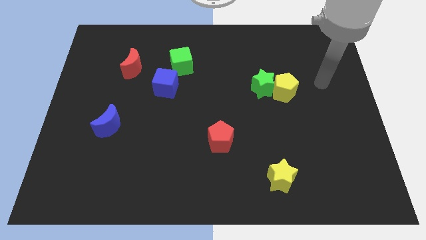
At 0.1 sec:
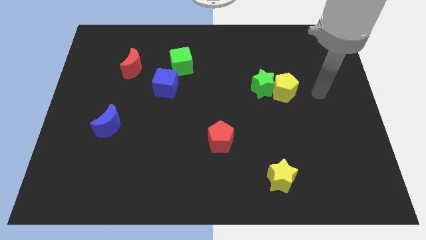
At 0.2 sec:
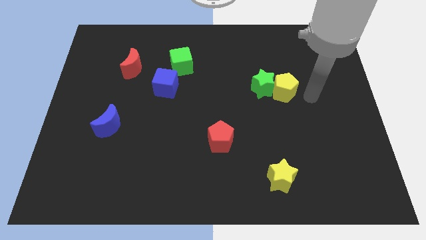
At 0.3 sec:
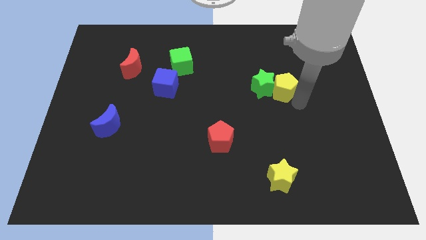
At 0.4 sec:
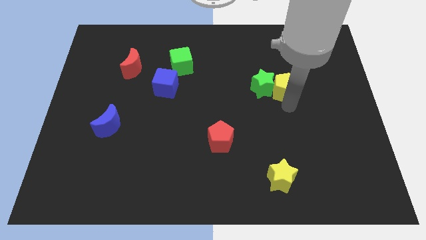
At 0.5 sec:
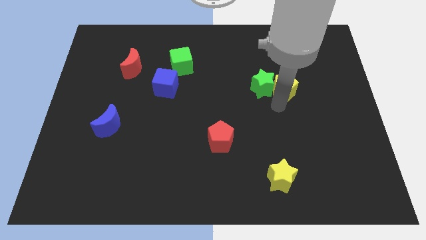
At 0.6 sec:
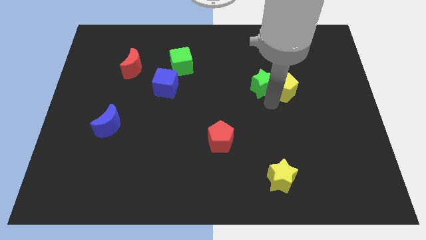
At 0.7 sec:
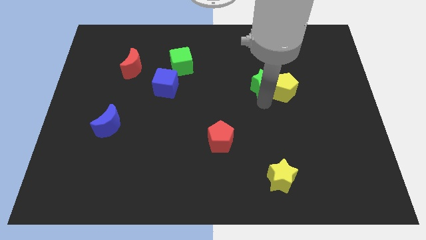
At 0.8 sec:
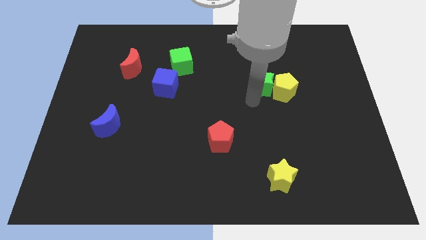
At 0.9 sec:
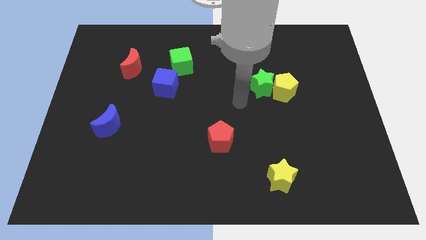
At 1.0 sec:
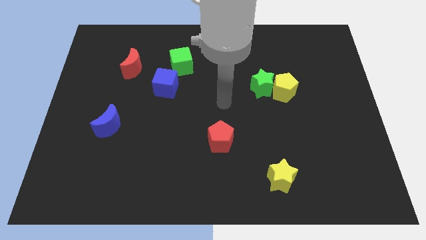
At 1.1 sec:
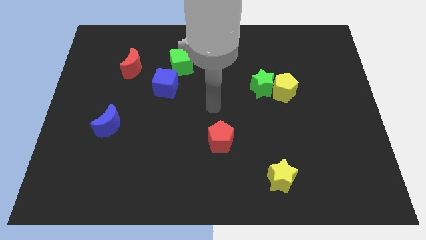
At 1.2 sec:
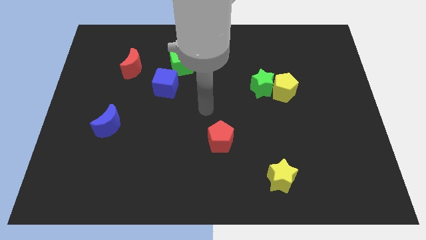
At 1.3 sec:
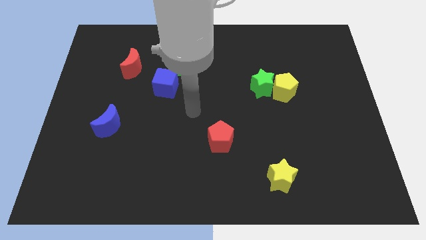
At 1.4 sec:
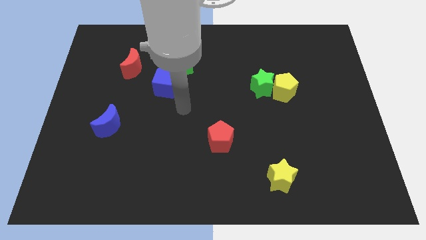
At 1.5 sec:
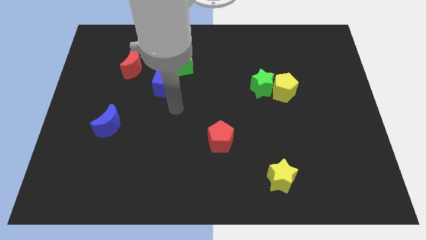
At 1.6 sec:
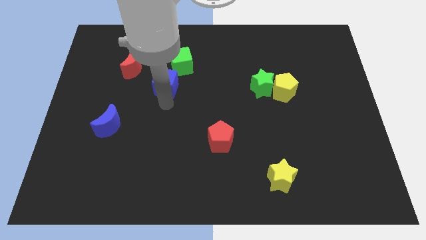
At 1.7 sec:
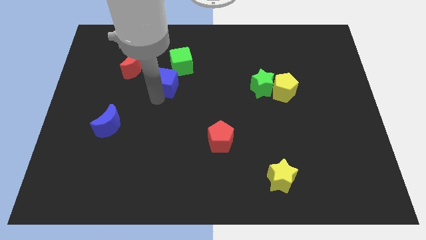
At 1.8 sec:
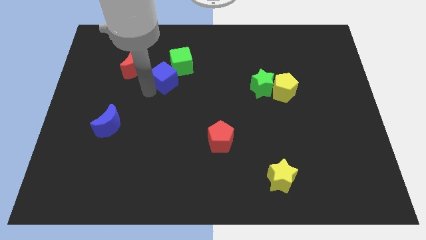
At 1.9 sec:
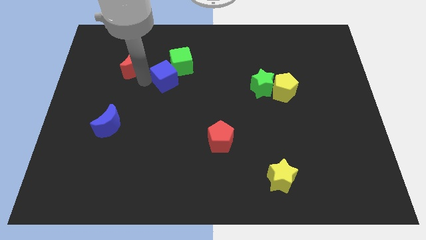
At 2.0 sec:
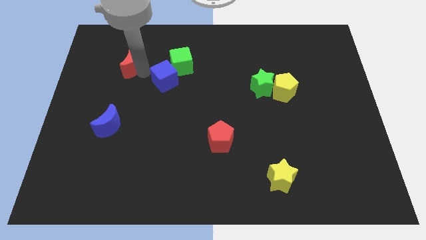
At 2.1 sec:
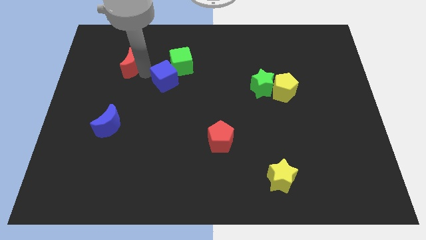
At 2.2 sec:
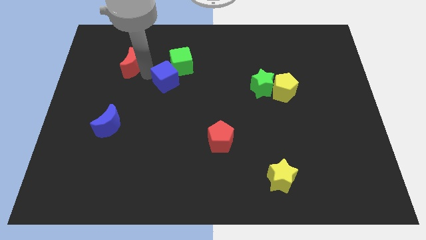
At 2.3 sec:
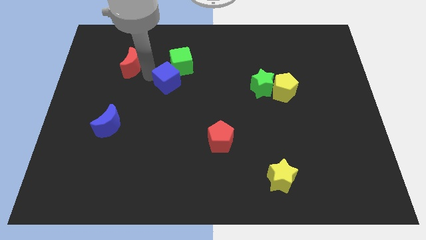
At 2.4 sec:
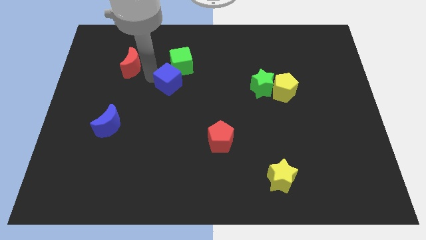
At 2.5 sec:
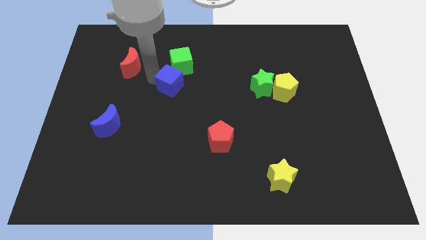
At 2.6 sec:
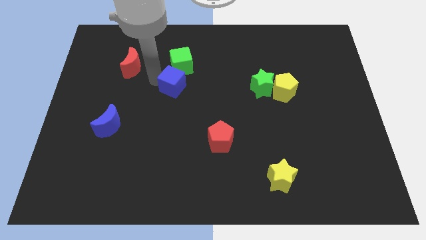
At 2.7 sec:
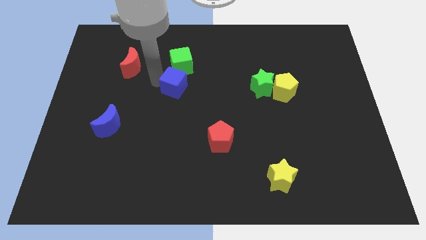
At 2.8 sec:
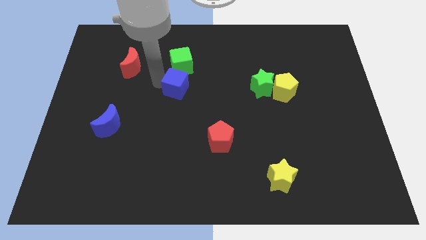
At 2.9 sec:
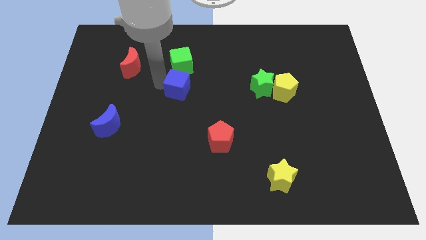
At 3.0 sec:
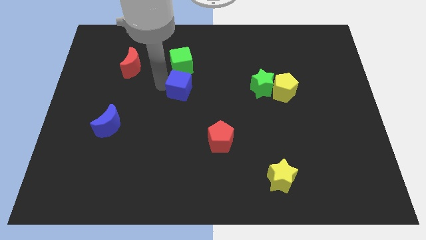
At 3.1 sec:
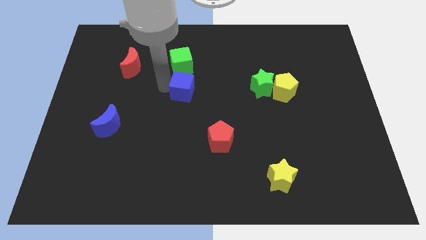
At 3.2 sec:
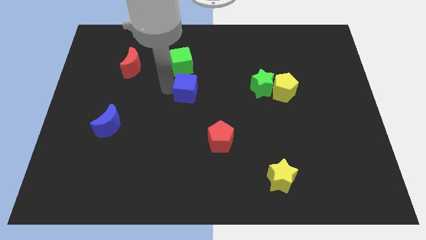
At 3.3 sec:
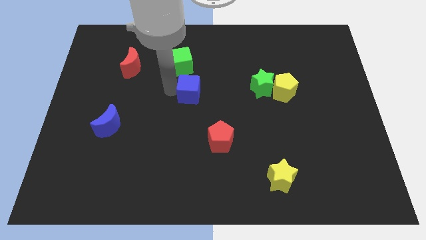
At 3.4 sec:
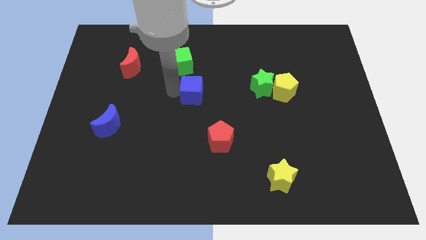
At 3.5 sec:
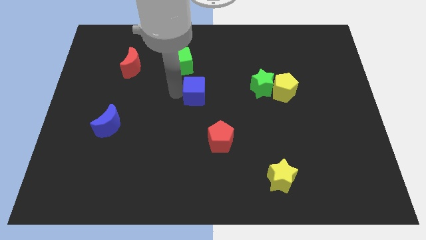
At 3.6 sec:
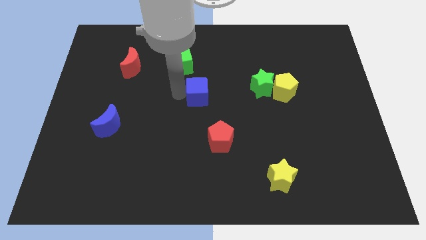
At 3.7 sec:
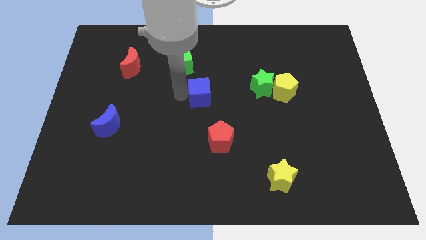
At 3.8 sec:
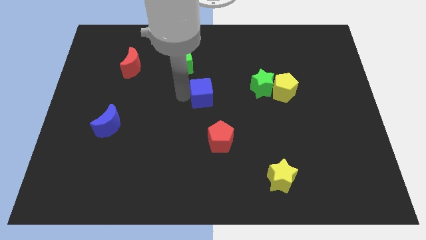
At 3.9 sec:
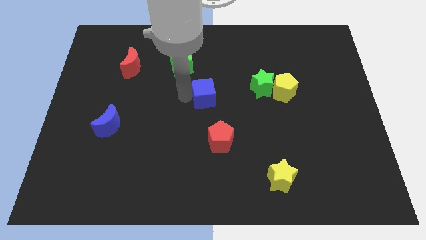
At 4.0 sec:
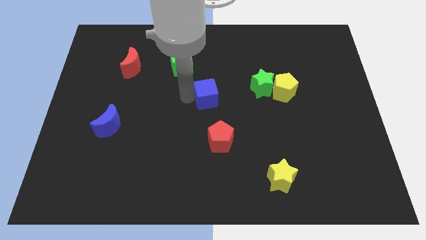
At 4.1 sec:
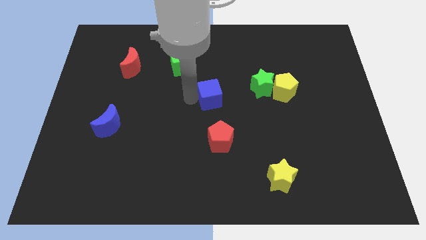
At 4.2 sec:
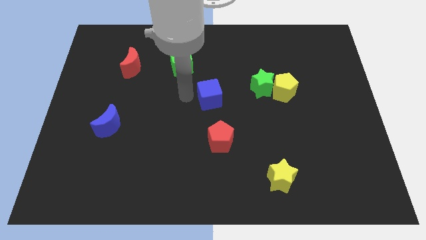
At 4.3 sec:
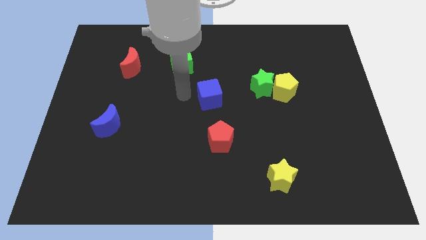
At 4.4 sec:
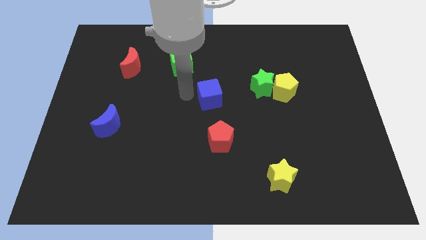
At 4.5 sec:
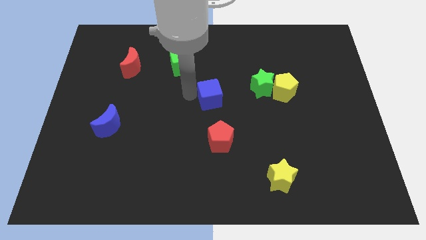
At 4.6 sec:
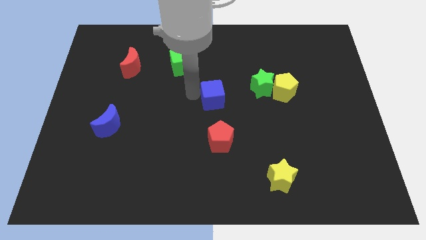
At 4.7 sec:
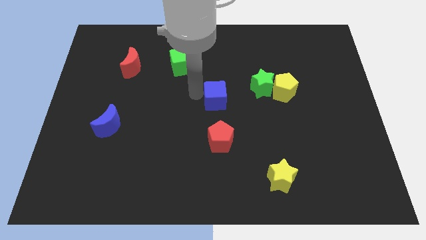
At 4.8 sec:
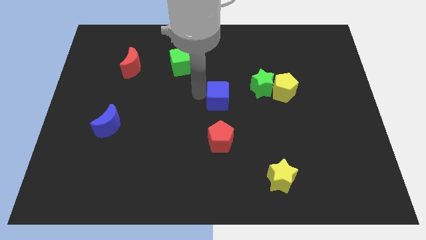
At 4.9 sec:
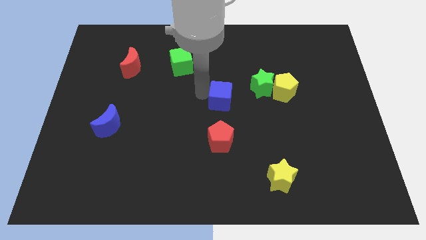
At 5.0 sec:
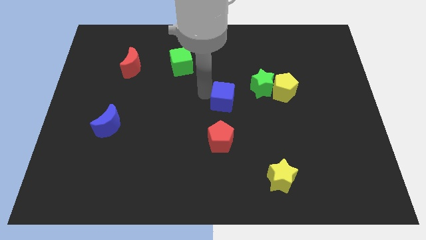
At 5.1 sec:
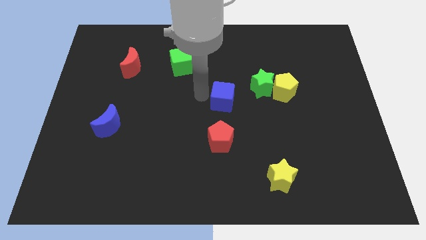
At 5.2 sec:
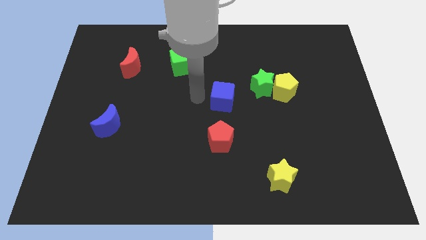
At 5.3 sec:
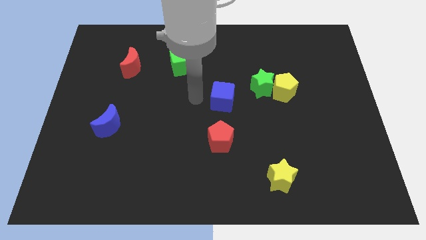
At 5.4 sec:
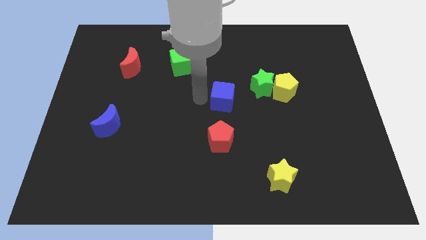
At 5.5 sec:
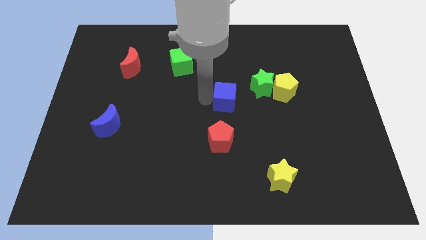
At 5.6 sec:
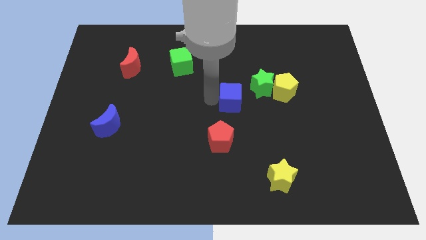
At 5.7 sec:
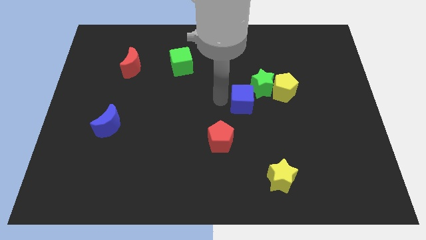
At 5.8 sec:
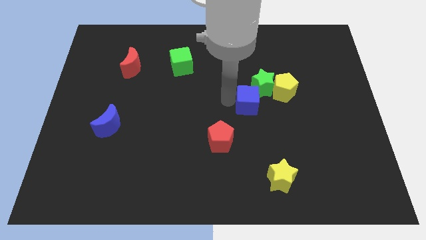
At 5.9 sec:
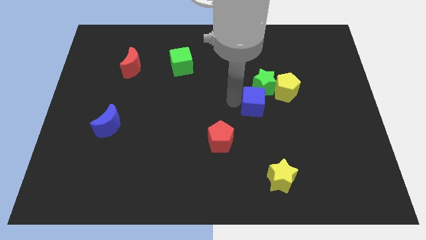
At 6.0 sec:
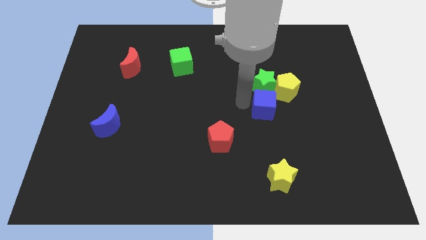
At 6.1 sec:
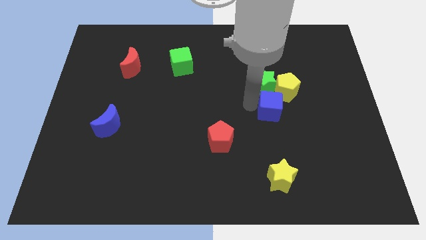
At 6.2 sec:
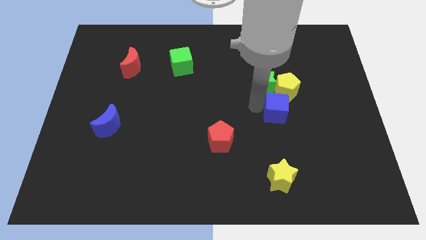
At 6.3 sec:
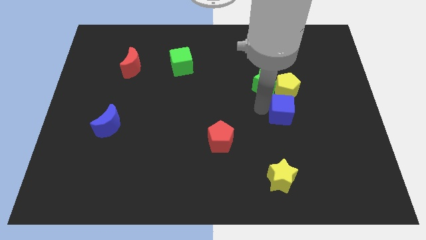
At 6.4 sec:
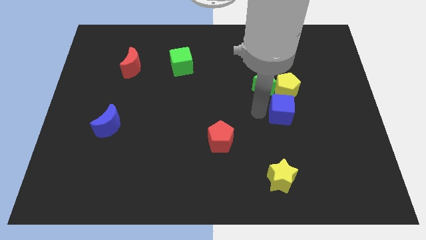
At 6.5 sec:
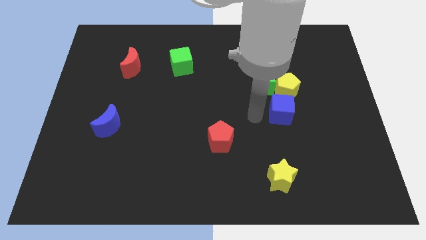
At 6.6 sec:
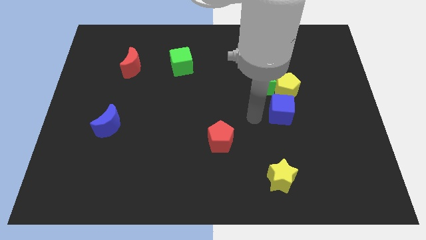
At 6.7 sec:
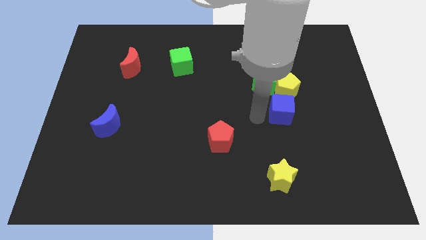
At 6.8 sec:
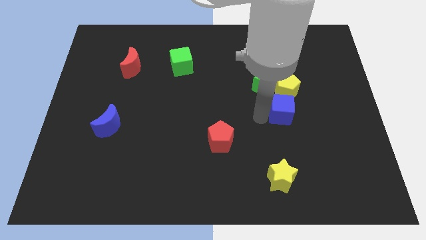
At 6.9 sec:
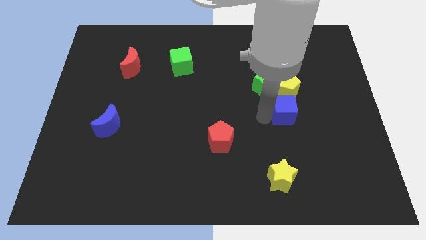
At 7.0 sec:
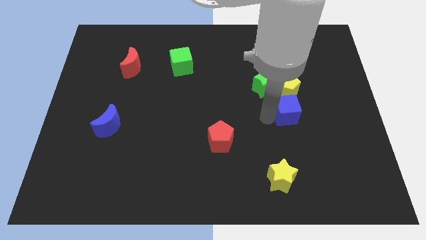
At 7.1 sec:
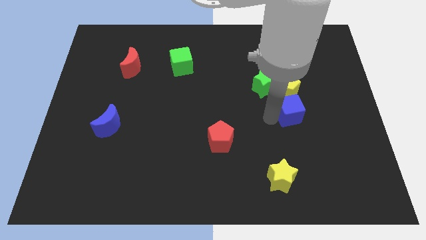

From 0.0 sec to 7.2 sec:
put the blue cube to the bottom right of the yellow pentagon
